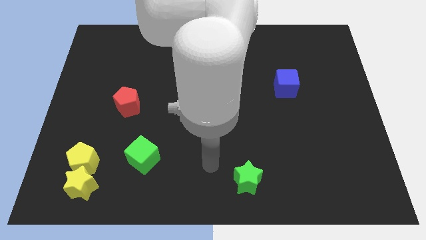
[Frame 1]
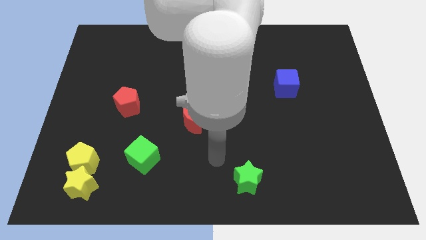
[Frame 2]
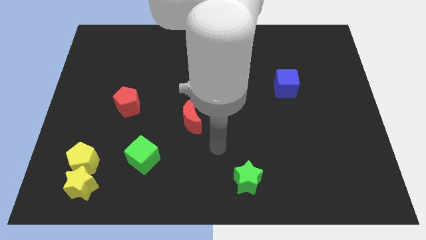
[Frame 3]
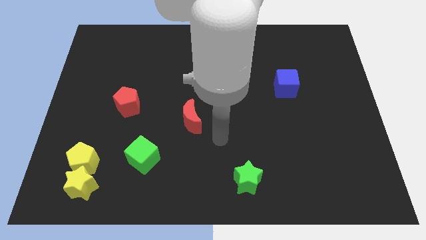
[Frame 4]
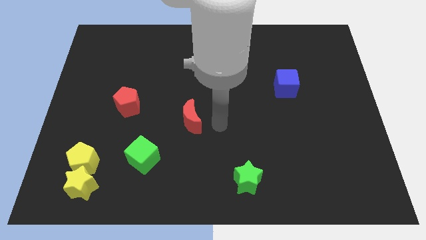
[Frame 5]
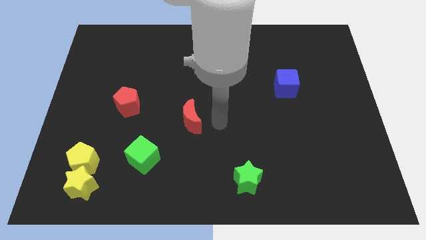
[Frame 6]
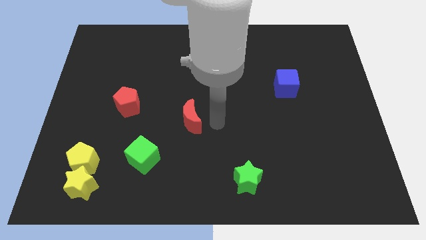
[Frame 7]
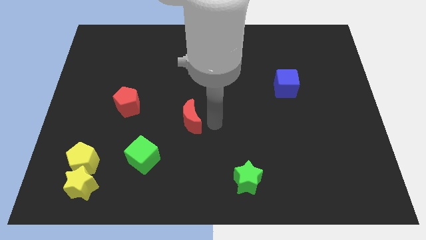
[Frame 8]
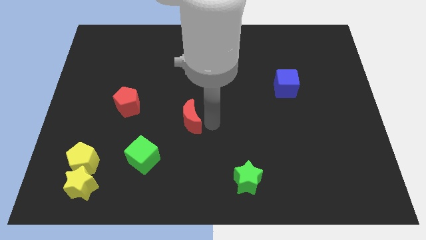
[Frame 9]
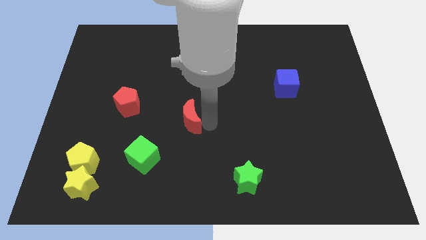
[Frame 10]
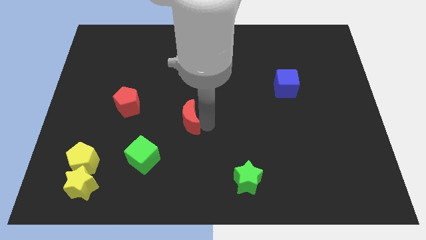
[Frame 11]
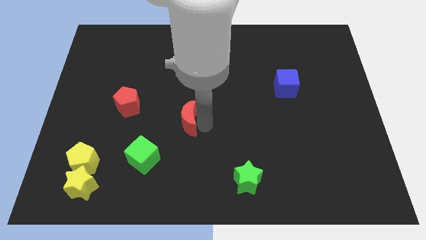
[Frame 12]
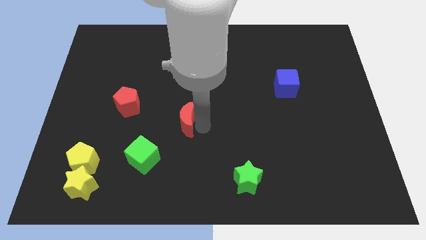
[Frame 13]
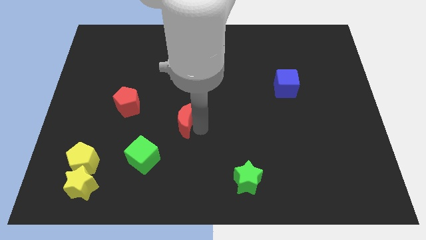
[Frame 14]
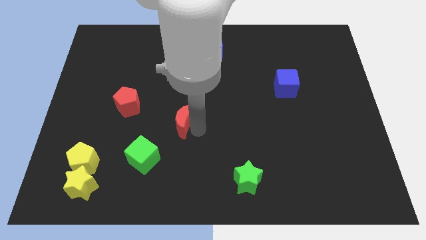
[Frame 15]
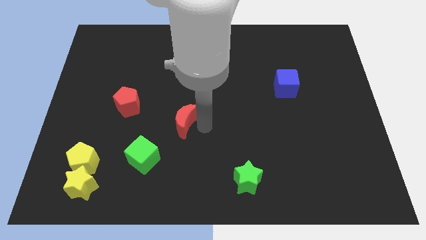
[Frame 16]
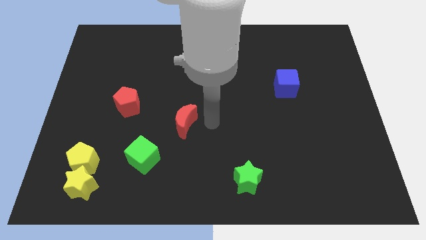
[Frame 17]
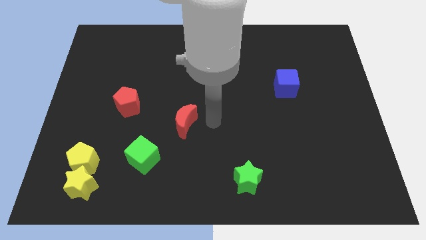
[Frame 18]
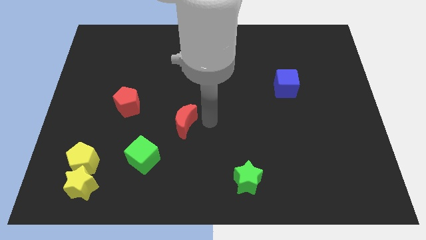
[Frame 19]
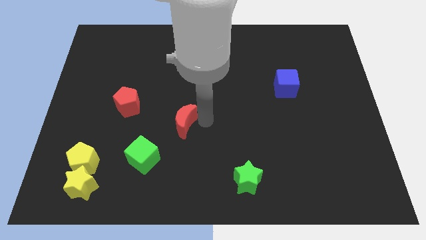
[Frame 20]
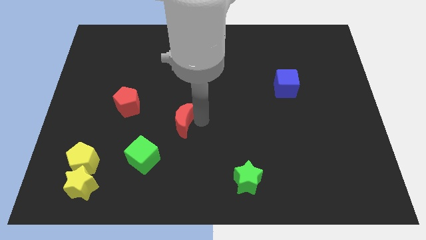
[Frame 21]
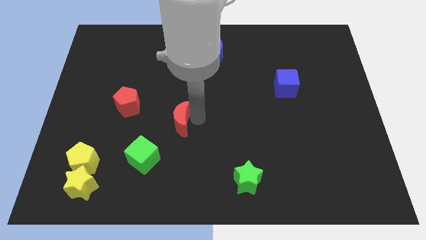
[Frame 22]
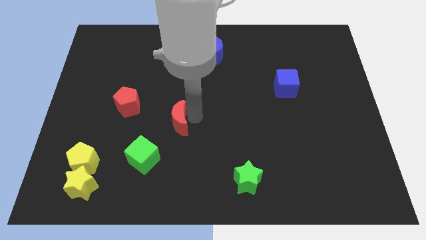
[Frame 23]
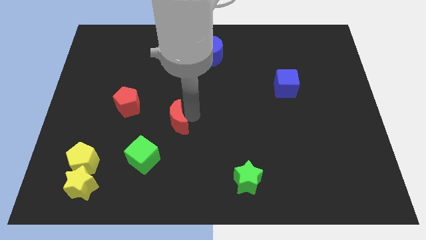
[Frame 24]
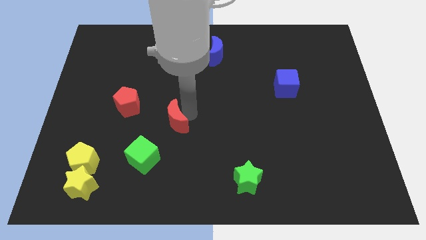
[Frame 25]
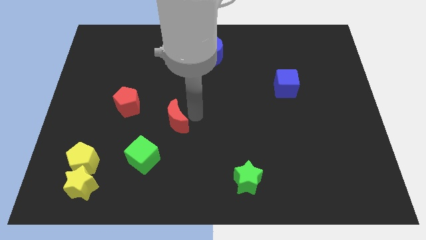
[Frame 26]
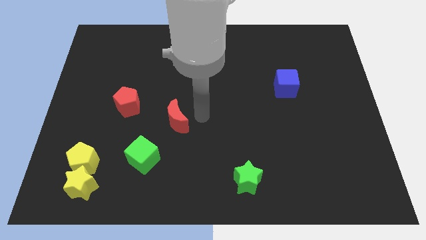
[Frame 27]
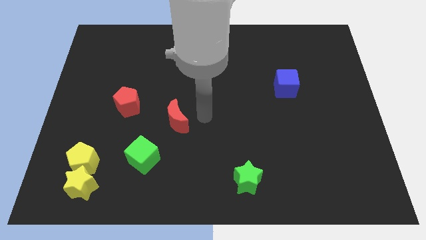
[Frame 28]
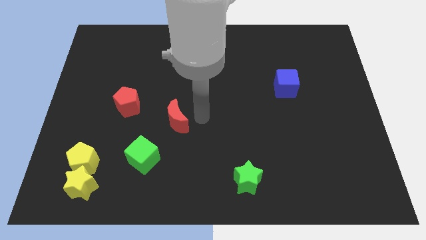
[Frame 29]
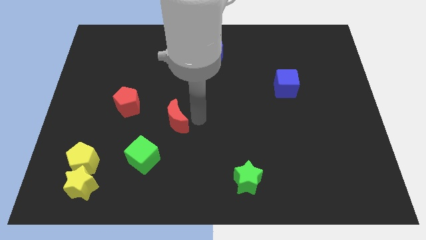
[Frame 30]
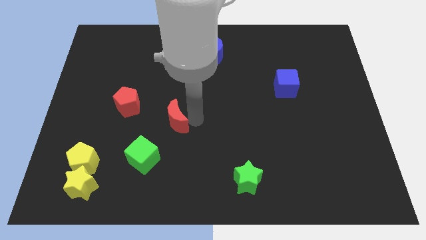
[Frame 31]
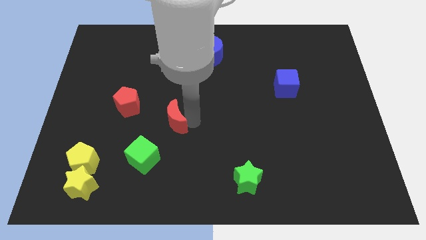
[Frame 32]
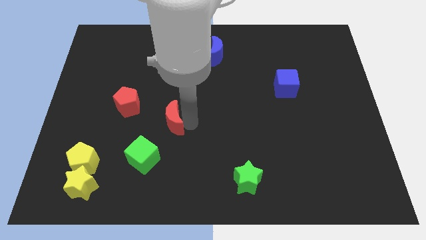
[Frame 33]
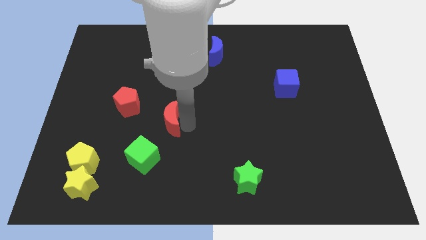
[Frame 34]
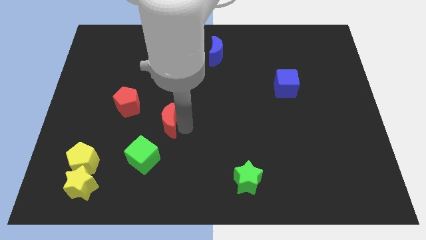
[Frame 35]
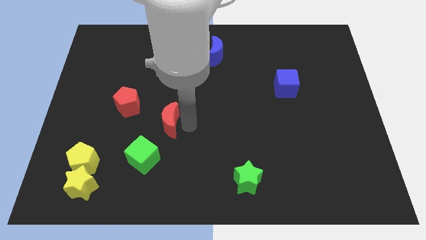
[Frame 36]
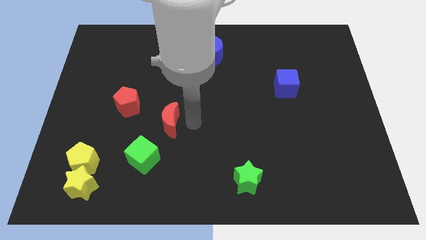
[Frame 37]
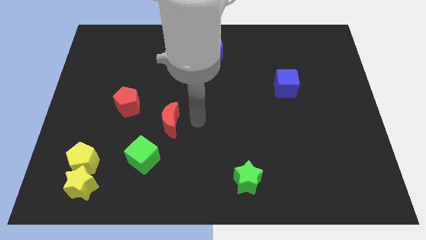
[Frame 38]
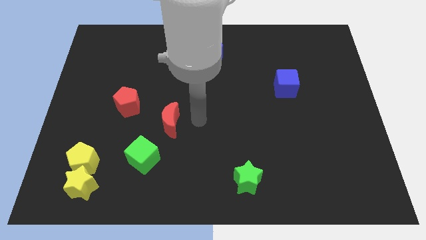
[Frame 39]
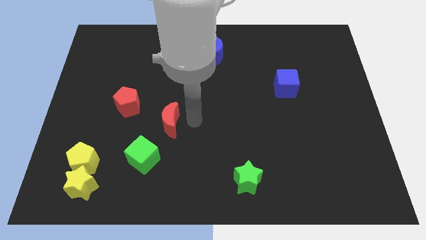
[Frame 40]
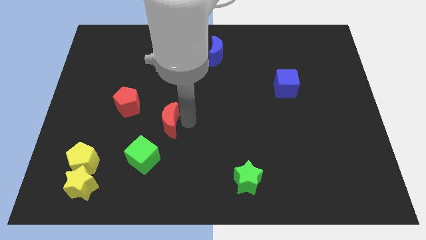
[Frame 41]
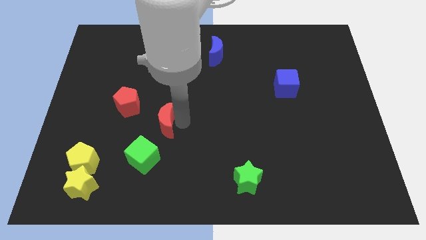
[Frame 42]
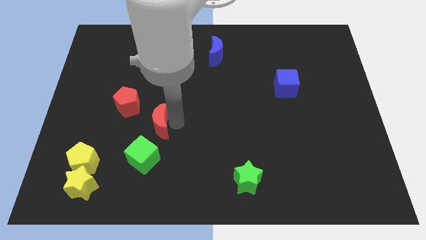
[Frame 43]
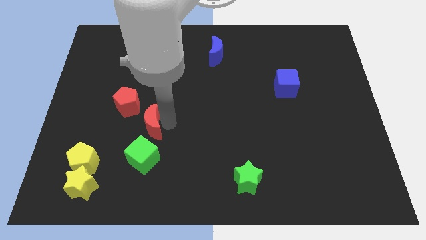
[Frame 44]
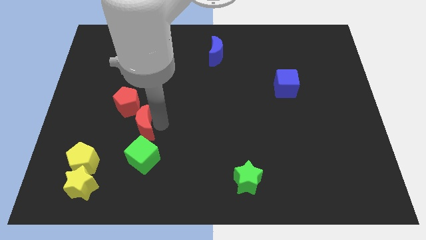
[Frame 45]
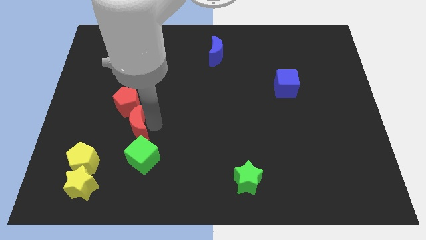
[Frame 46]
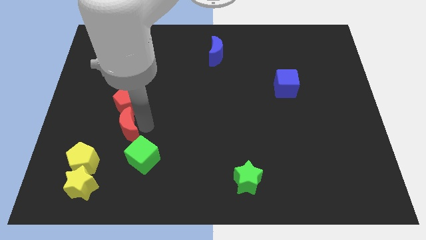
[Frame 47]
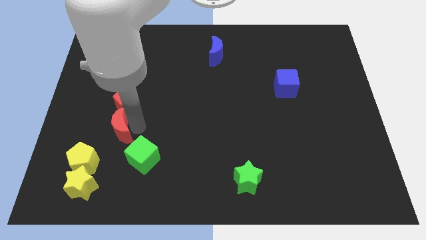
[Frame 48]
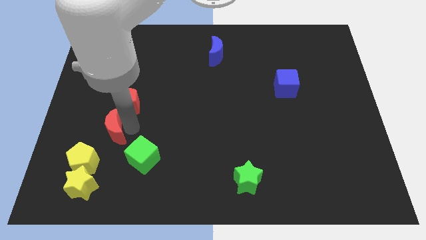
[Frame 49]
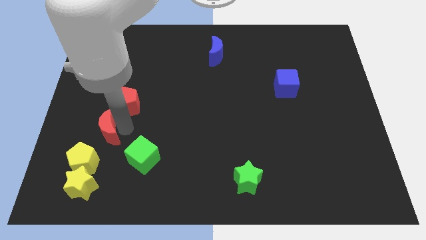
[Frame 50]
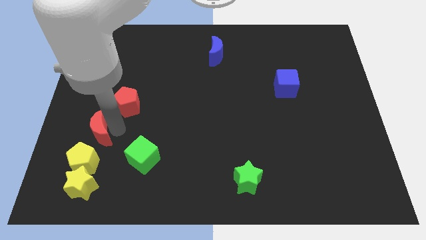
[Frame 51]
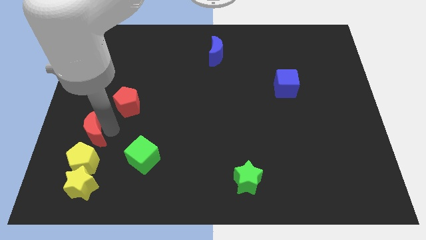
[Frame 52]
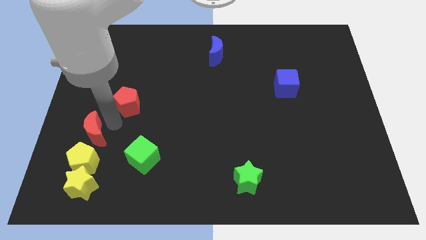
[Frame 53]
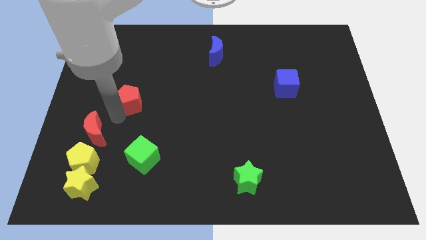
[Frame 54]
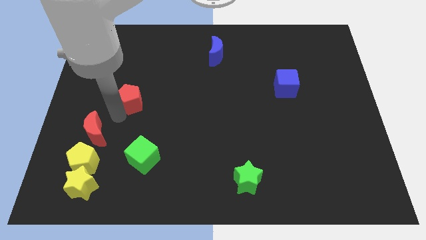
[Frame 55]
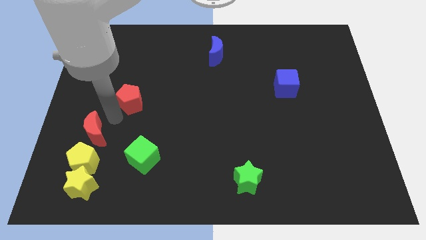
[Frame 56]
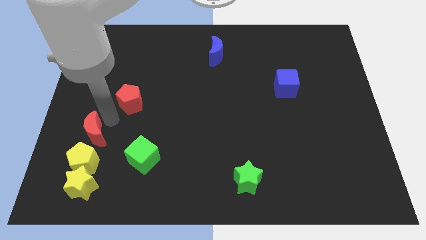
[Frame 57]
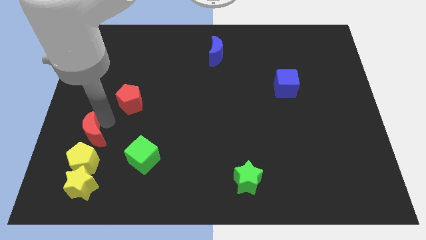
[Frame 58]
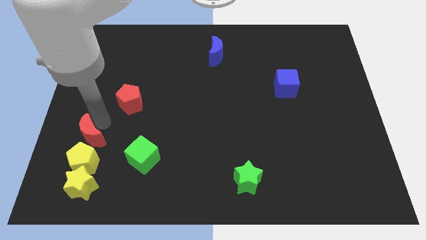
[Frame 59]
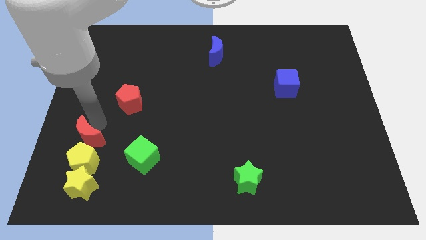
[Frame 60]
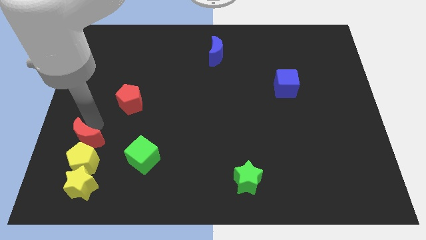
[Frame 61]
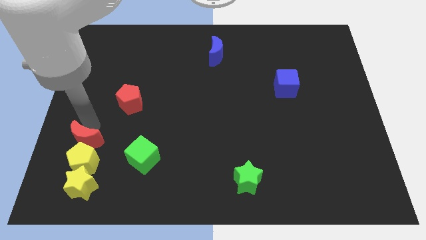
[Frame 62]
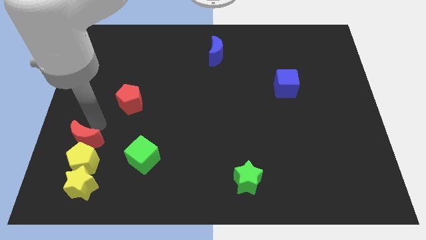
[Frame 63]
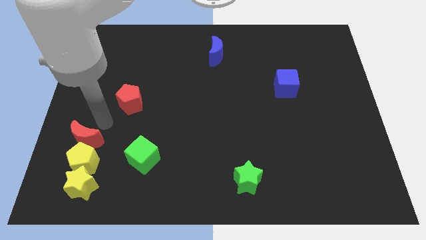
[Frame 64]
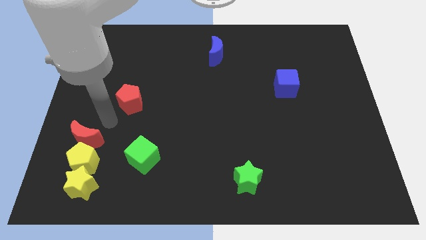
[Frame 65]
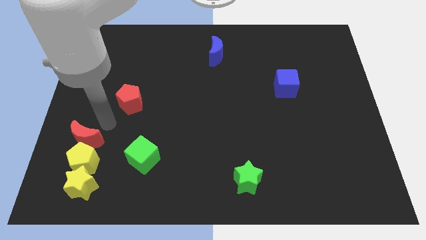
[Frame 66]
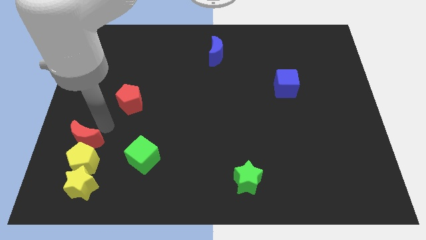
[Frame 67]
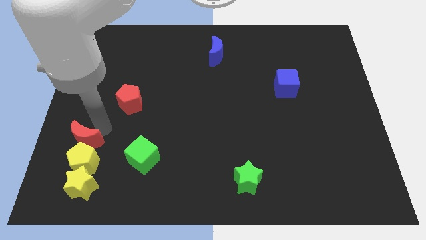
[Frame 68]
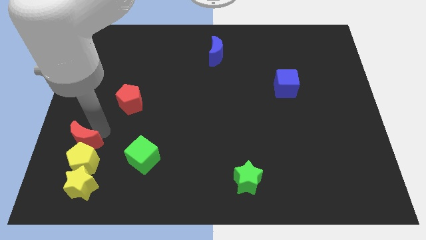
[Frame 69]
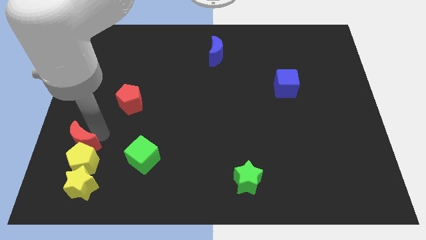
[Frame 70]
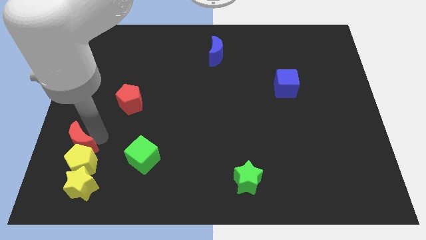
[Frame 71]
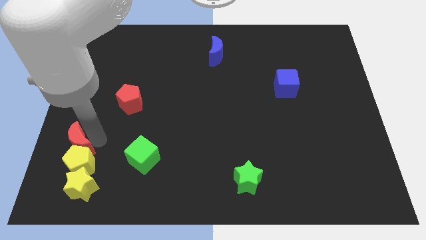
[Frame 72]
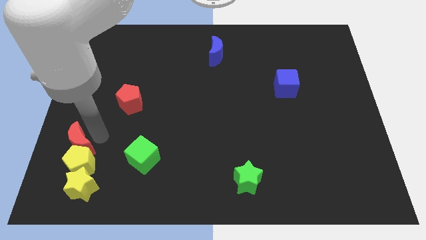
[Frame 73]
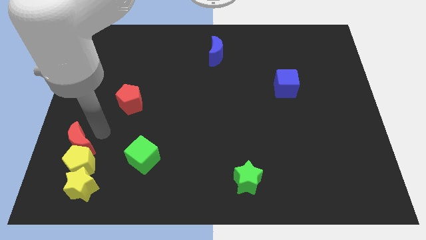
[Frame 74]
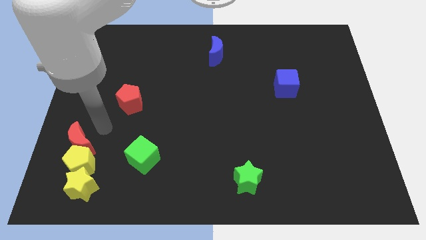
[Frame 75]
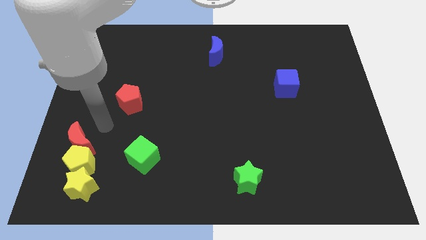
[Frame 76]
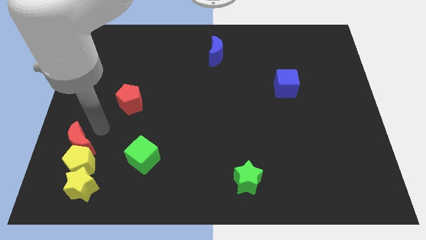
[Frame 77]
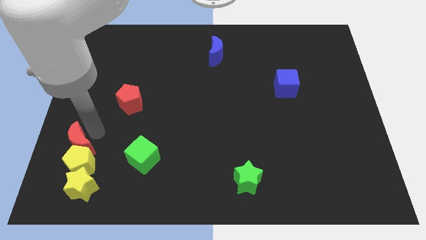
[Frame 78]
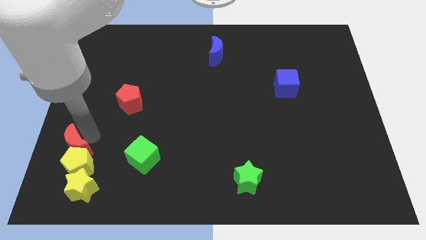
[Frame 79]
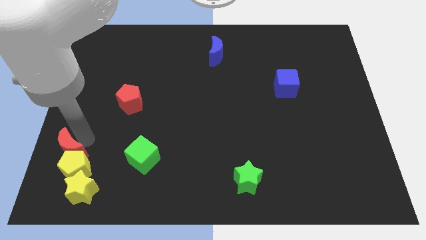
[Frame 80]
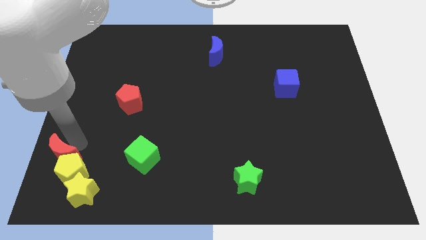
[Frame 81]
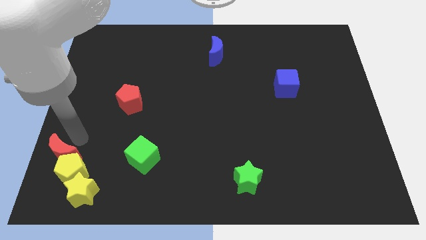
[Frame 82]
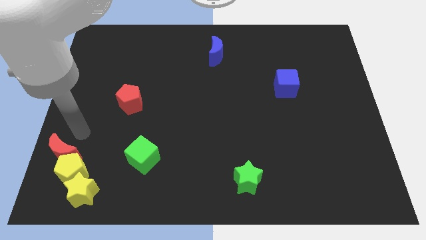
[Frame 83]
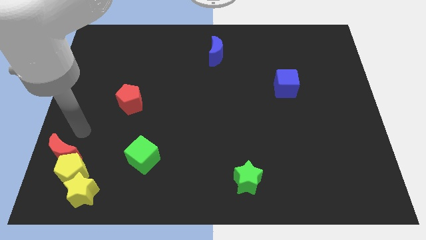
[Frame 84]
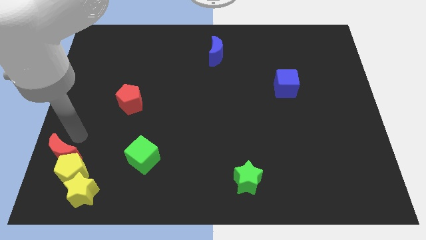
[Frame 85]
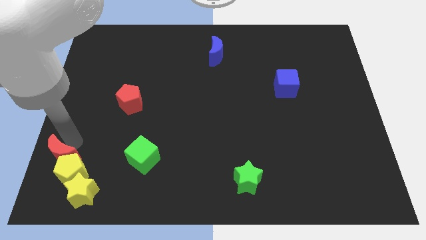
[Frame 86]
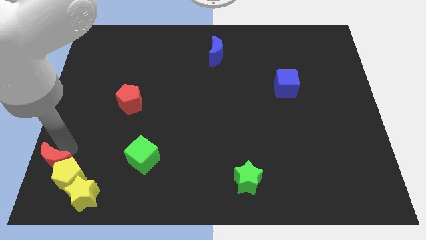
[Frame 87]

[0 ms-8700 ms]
push the red moon to the bottom left
